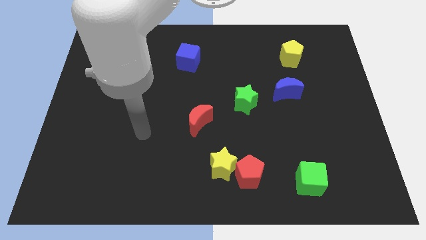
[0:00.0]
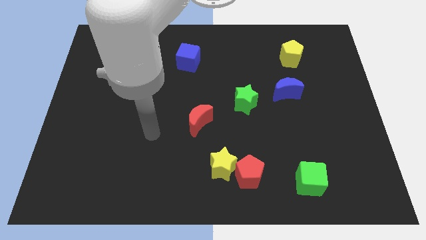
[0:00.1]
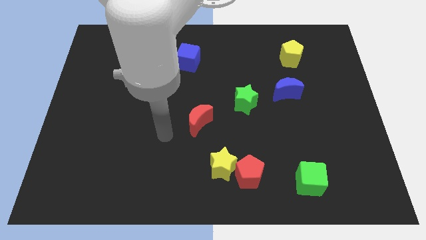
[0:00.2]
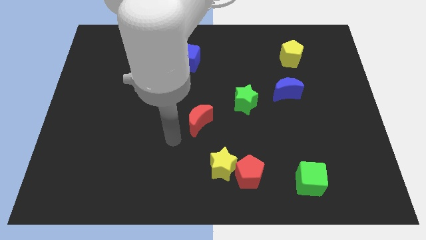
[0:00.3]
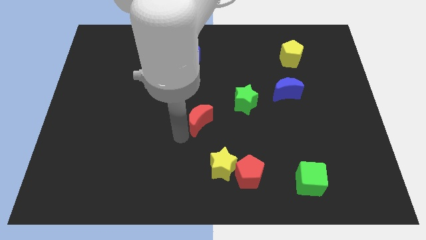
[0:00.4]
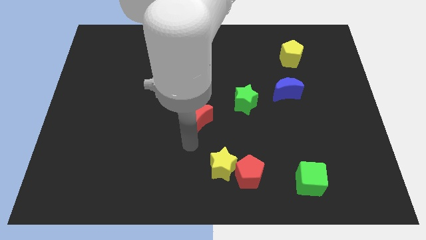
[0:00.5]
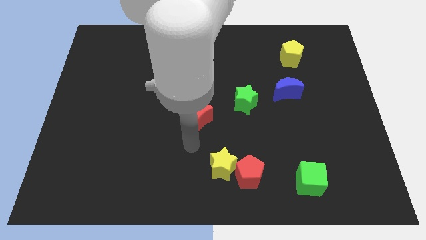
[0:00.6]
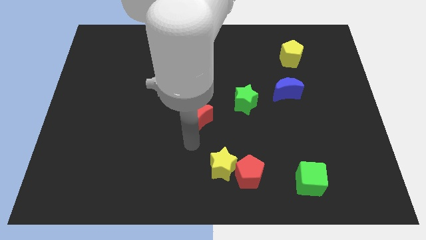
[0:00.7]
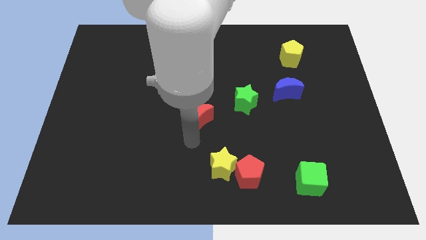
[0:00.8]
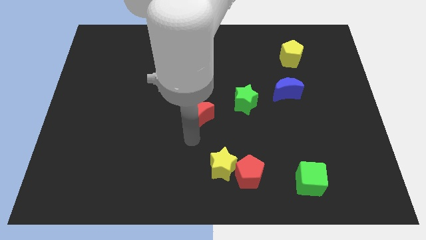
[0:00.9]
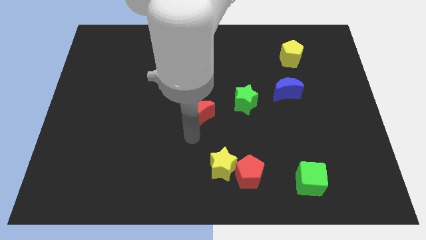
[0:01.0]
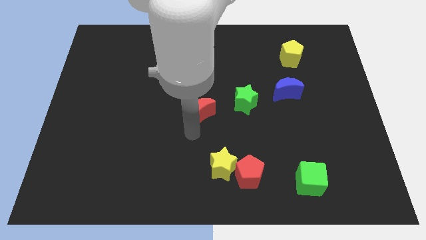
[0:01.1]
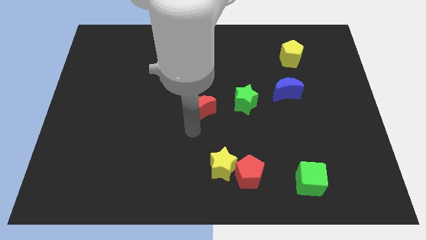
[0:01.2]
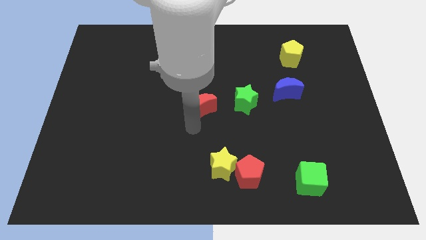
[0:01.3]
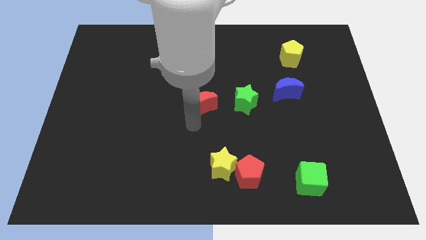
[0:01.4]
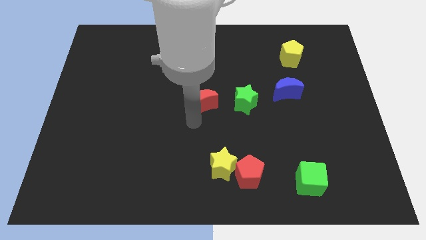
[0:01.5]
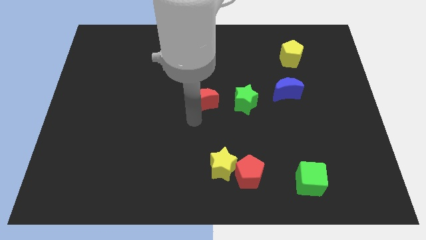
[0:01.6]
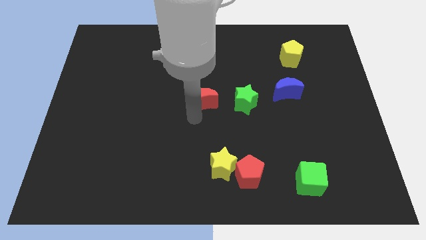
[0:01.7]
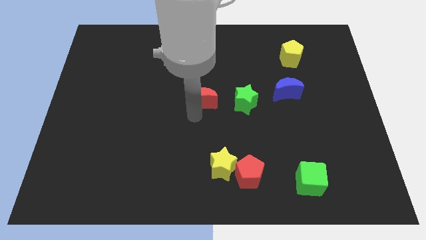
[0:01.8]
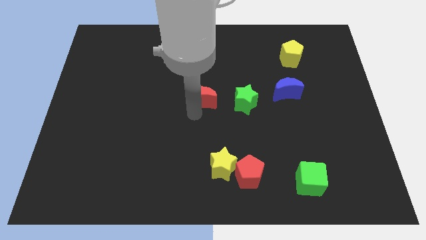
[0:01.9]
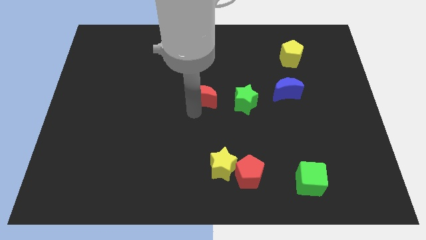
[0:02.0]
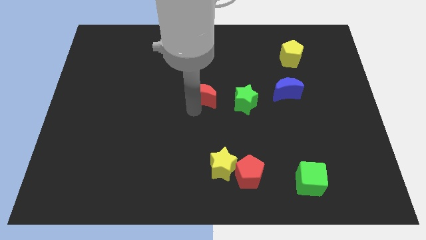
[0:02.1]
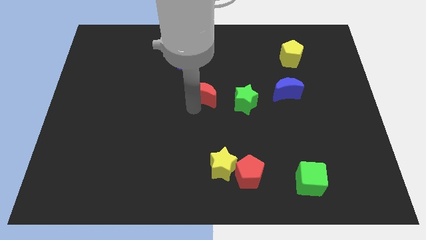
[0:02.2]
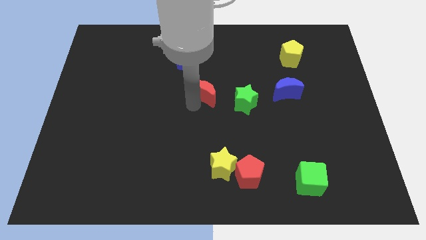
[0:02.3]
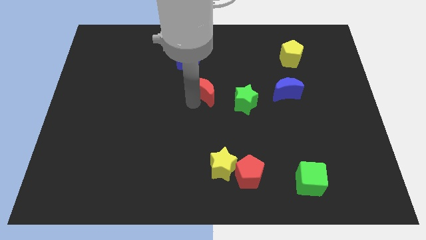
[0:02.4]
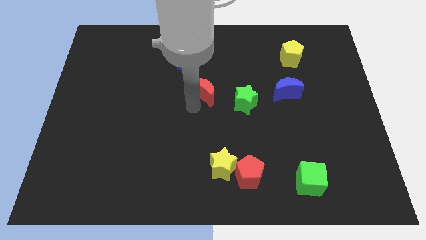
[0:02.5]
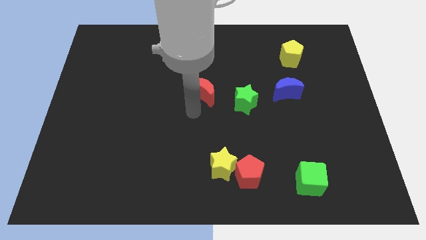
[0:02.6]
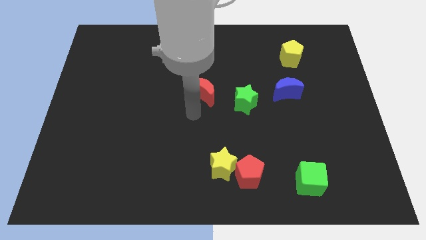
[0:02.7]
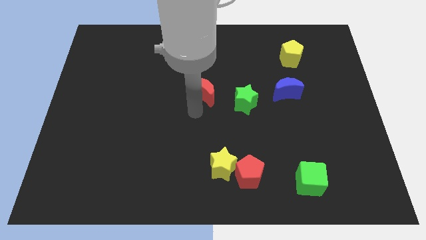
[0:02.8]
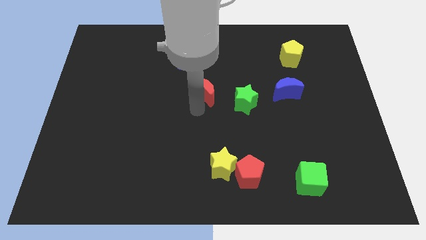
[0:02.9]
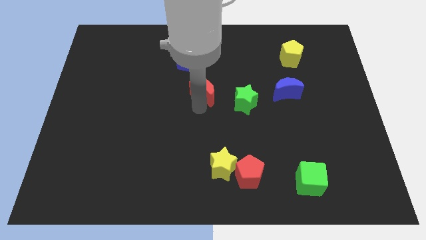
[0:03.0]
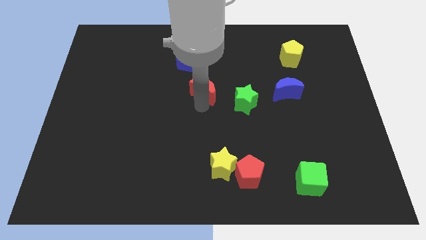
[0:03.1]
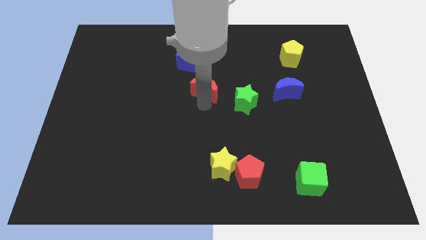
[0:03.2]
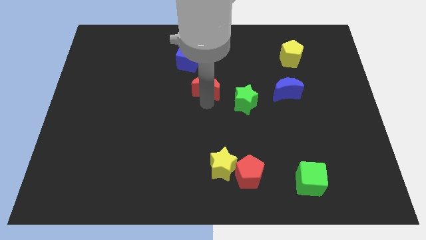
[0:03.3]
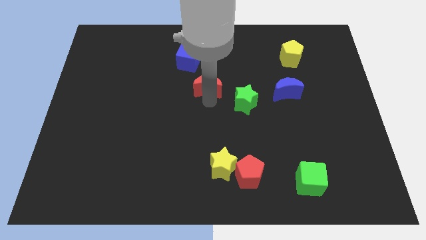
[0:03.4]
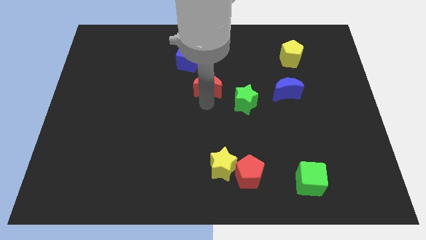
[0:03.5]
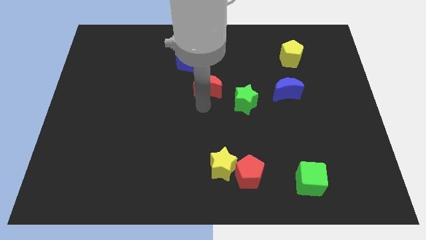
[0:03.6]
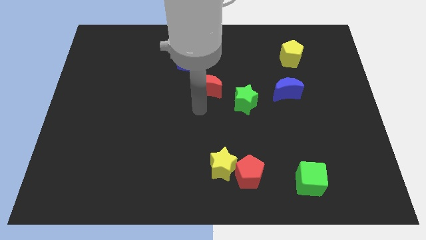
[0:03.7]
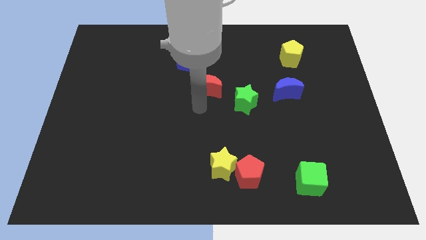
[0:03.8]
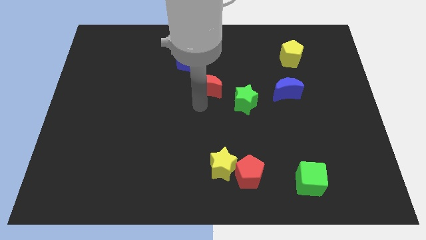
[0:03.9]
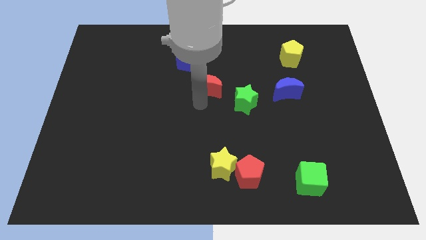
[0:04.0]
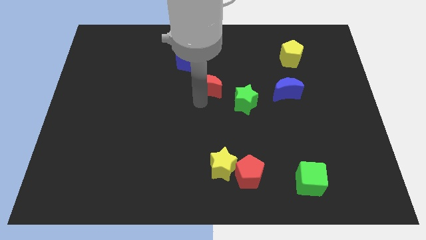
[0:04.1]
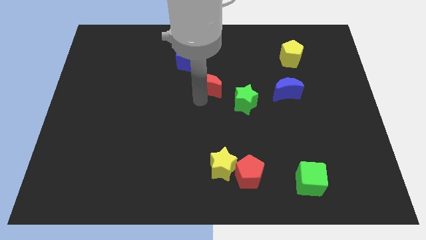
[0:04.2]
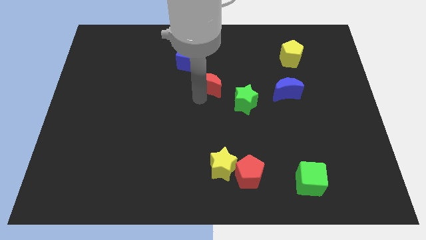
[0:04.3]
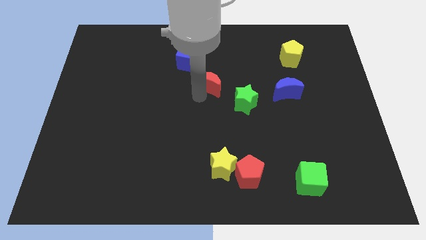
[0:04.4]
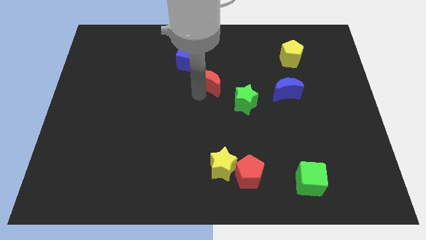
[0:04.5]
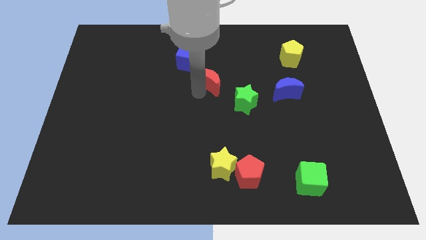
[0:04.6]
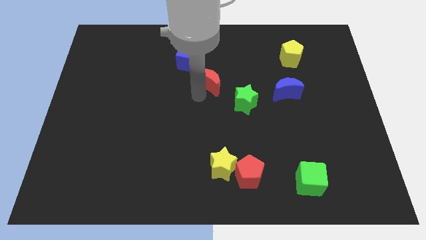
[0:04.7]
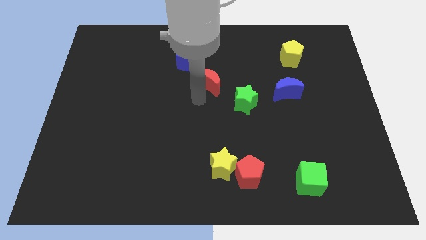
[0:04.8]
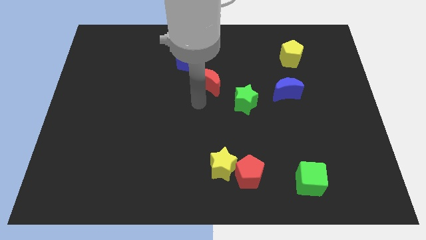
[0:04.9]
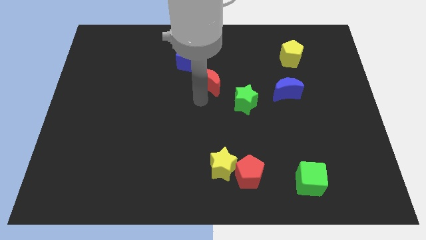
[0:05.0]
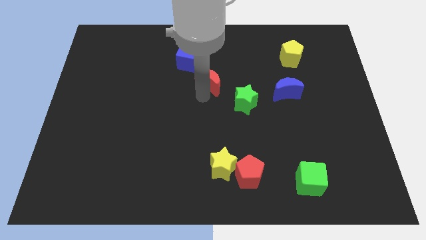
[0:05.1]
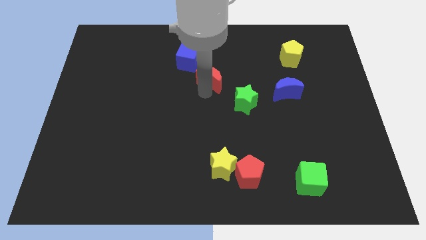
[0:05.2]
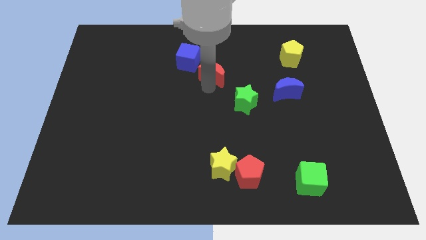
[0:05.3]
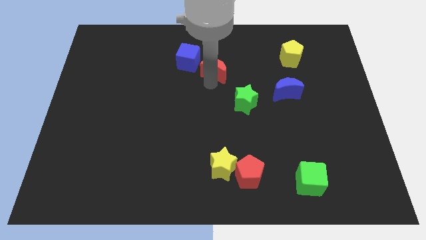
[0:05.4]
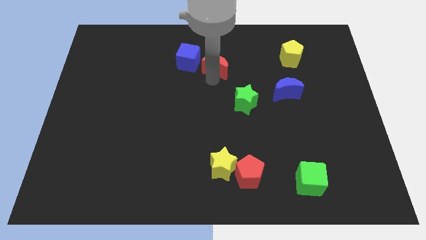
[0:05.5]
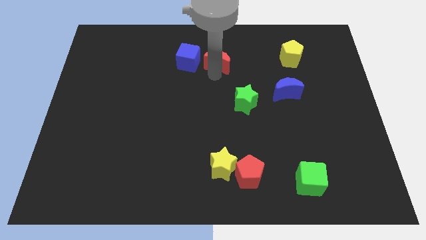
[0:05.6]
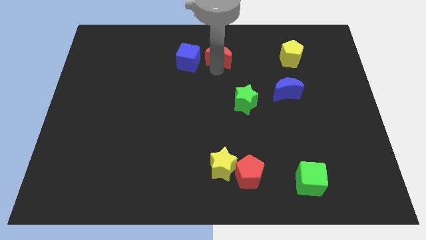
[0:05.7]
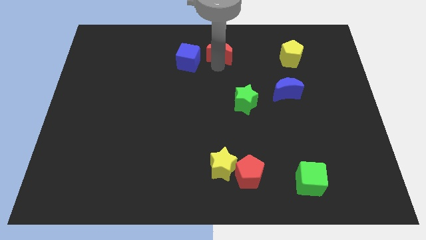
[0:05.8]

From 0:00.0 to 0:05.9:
move the red moon to the top
